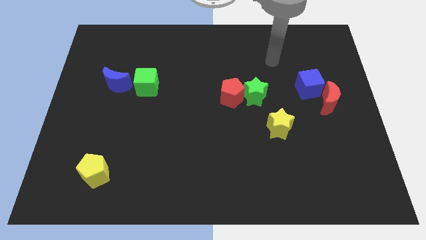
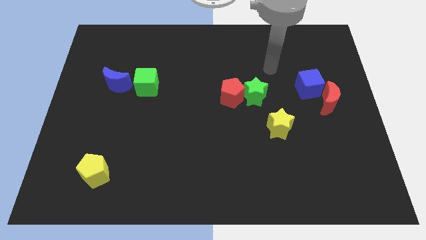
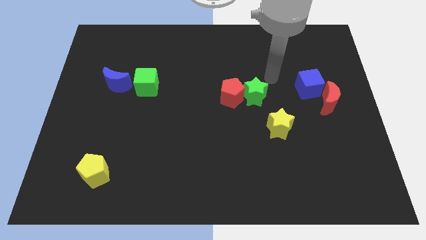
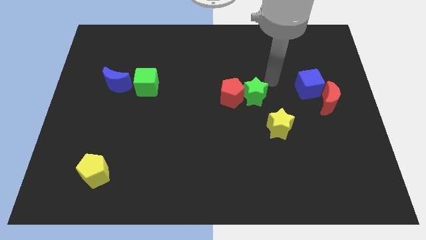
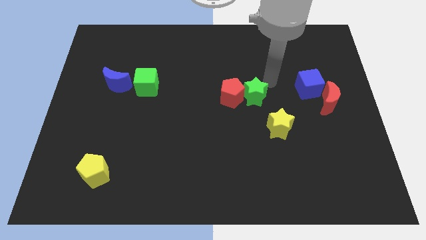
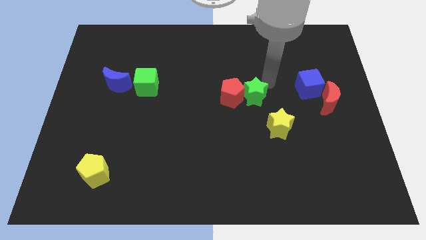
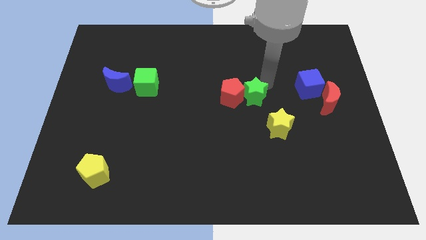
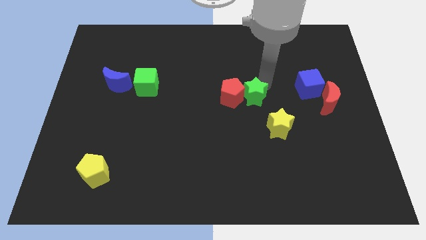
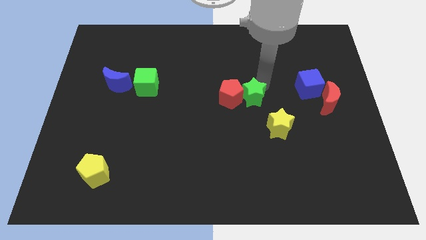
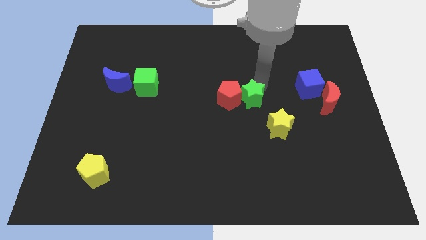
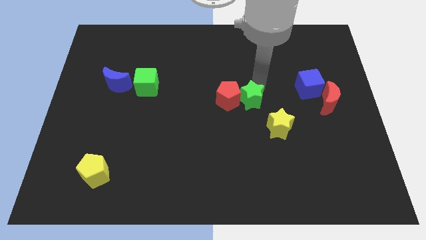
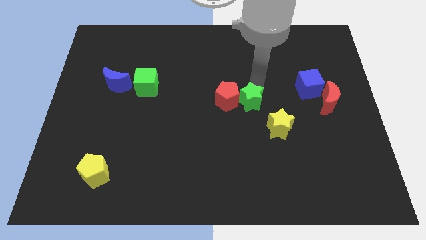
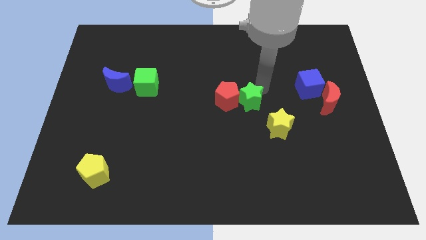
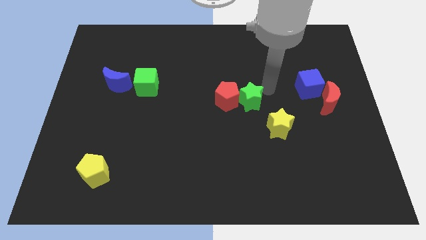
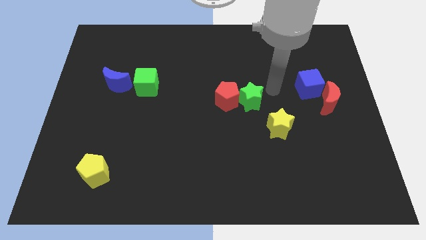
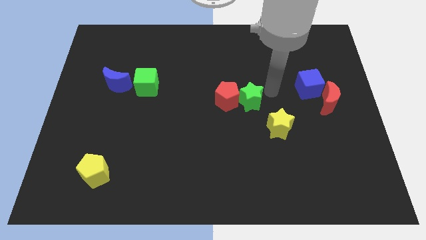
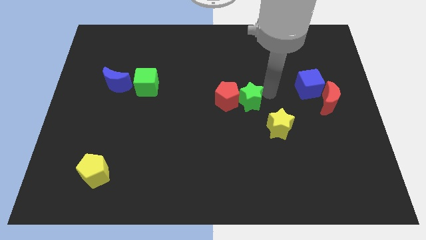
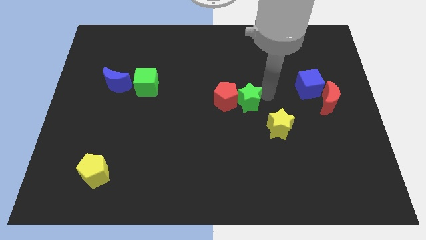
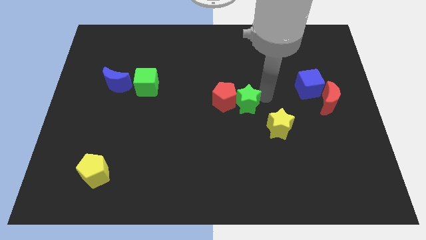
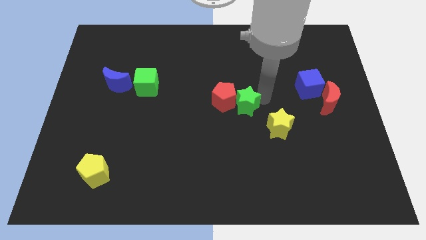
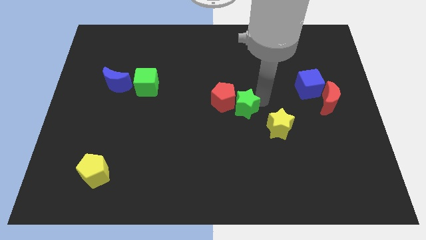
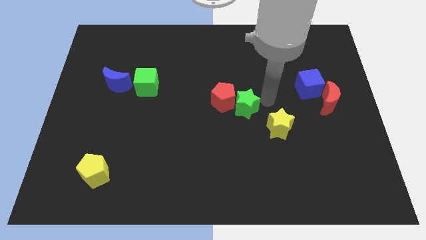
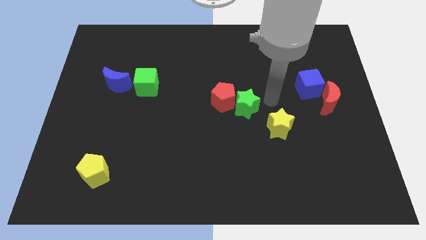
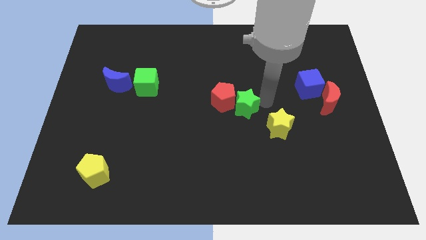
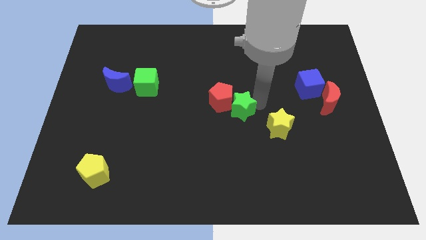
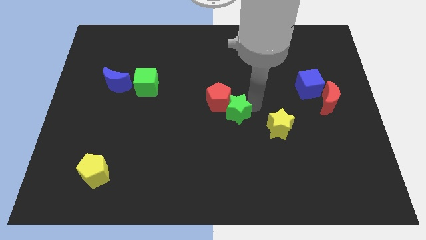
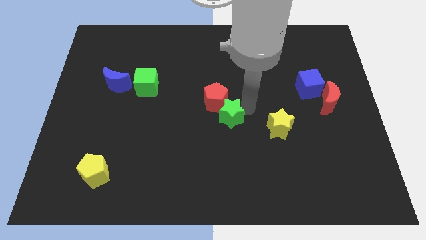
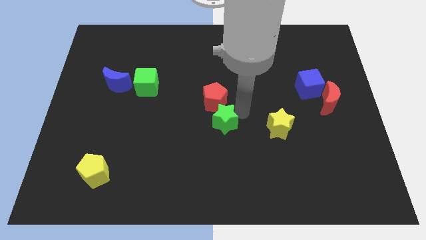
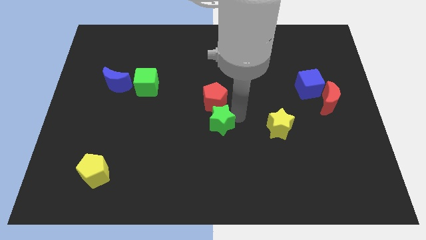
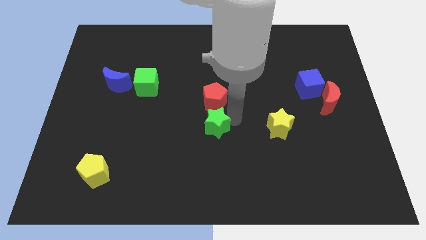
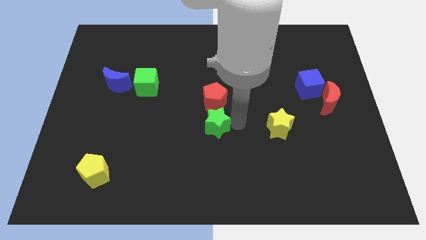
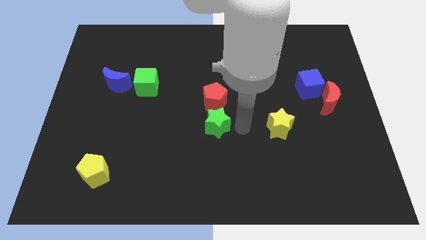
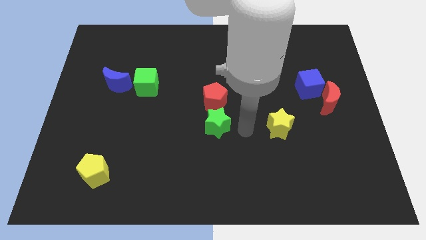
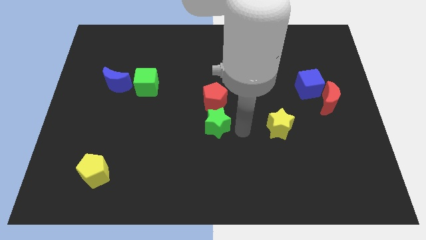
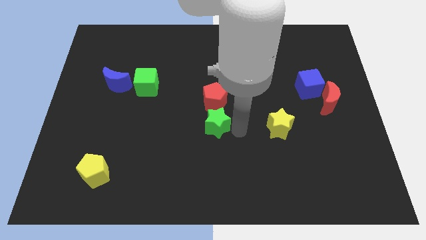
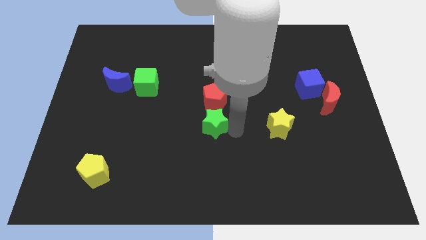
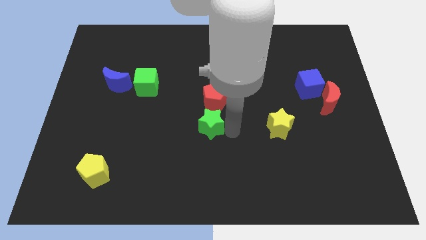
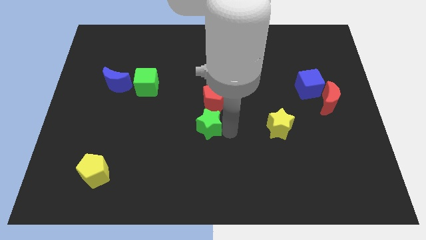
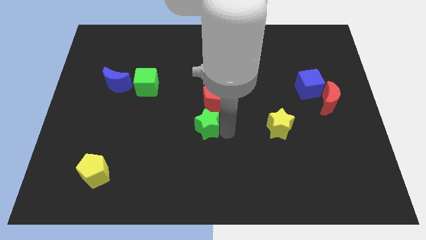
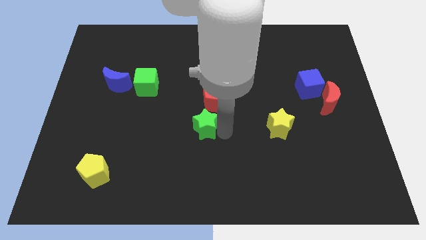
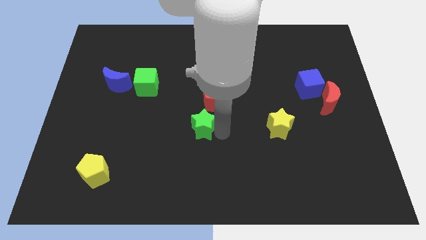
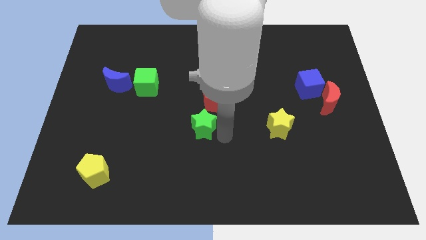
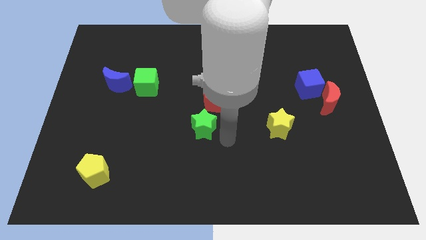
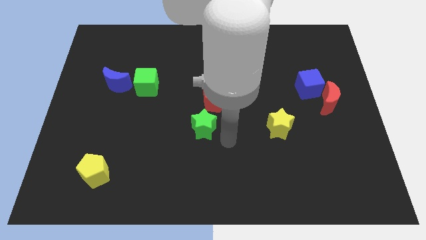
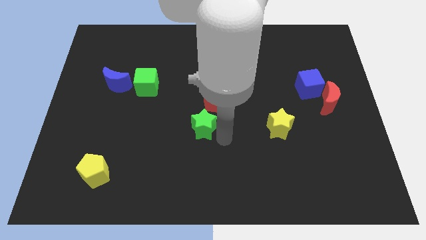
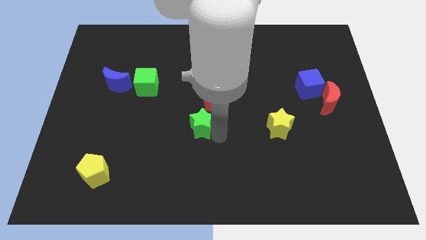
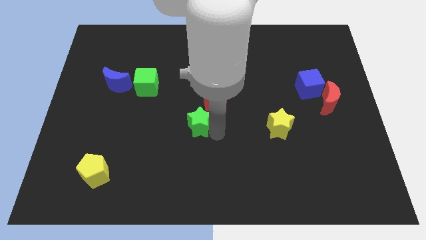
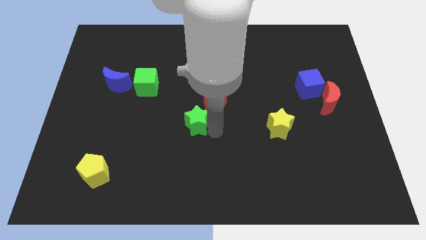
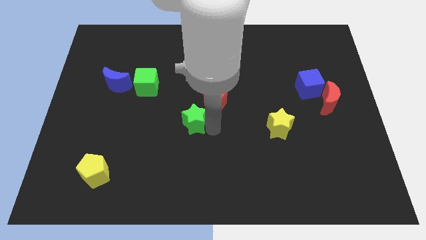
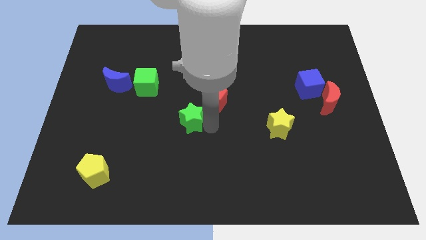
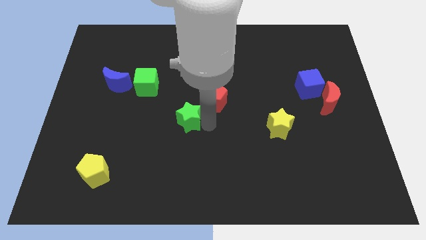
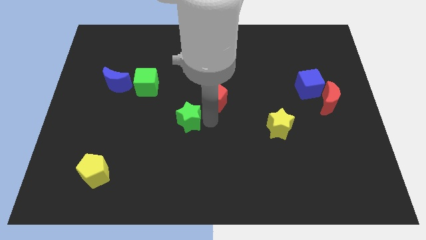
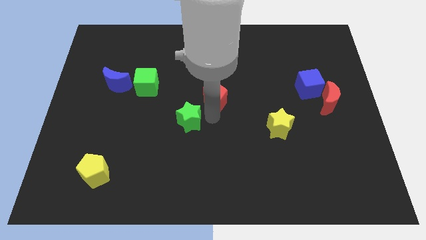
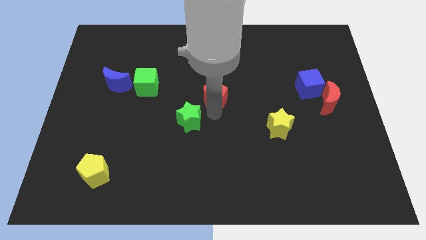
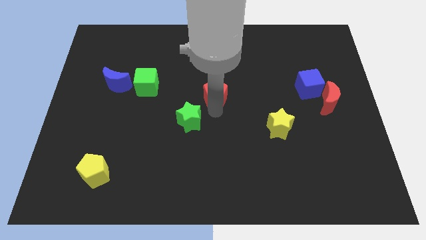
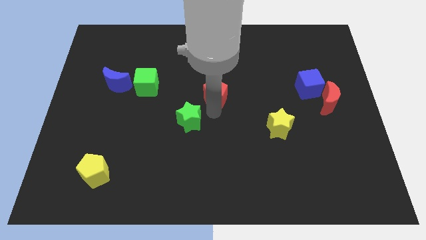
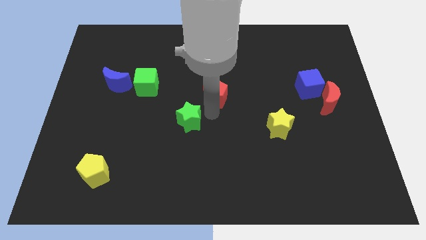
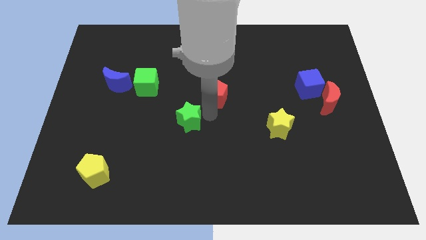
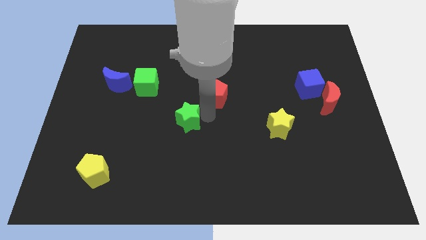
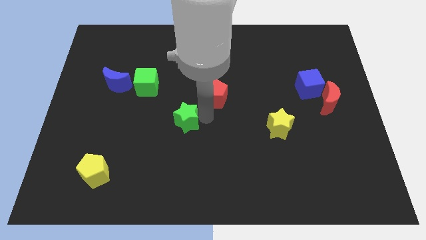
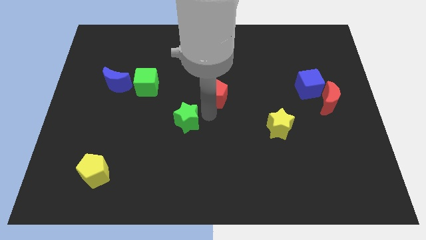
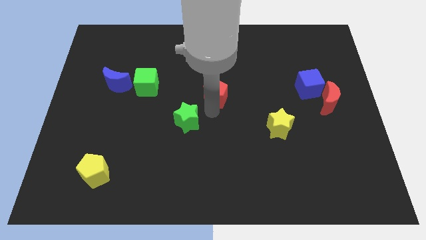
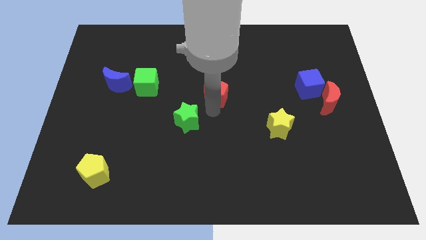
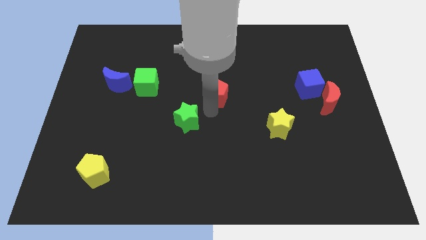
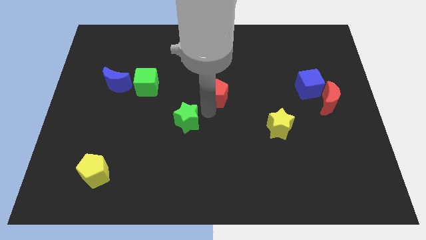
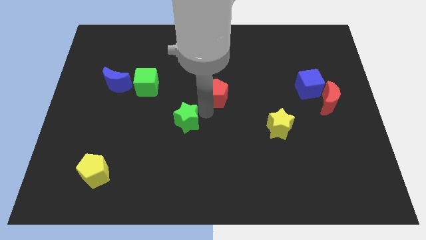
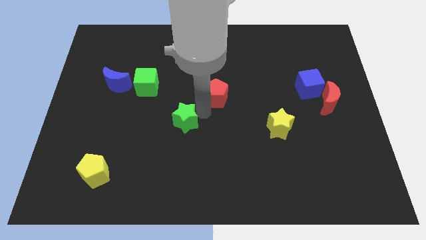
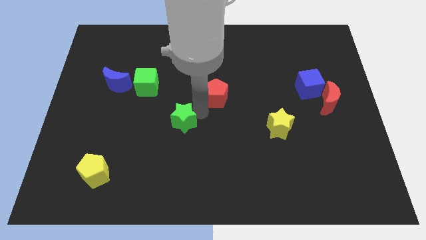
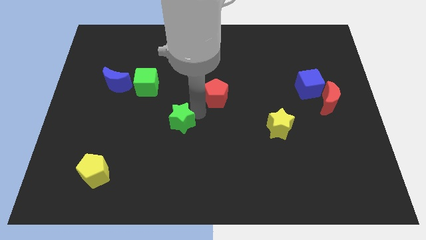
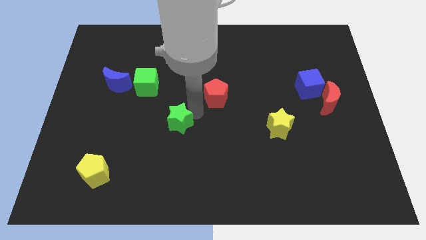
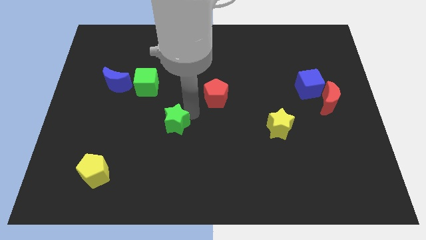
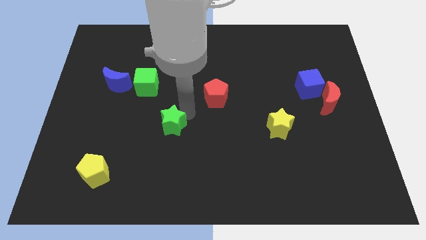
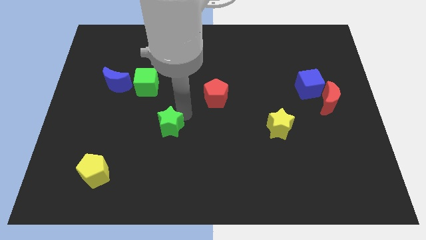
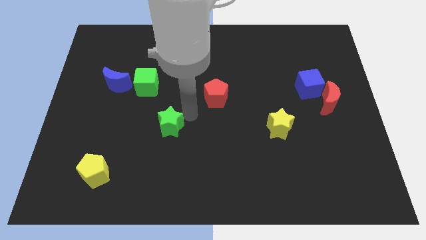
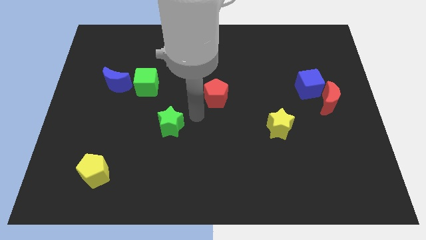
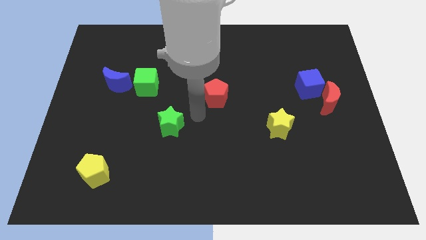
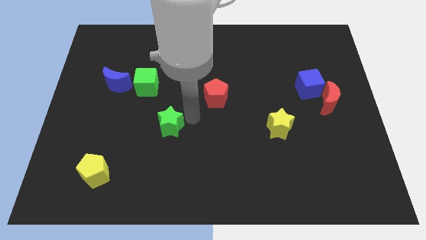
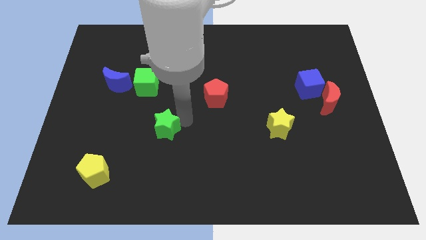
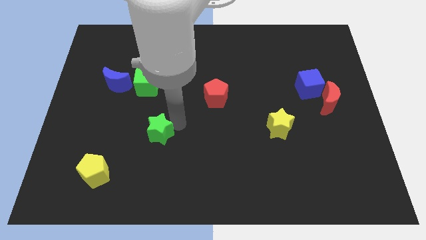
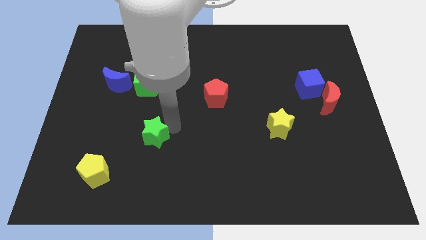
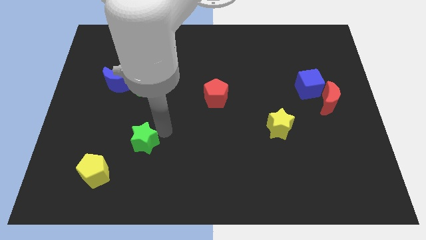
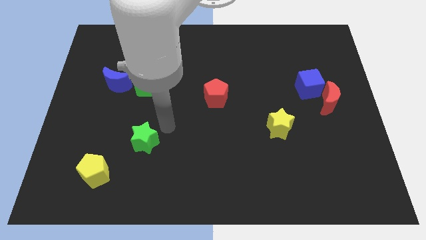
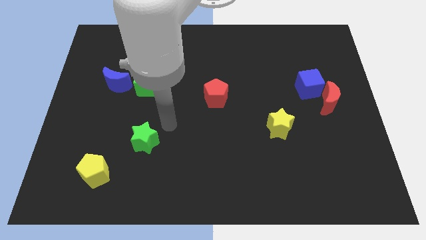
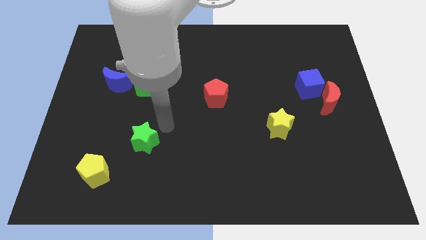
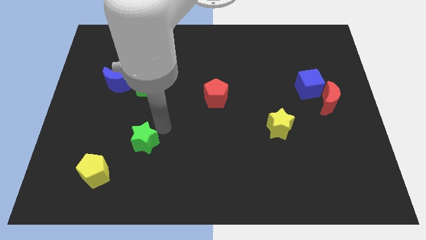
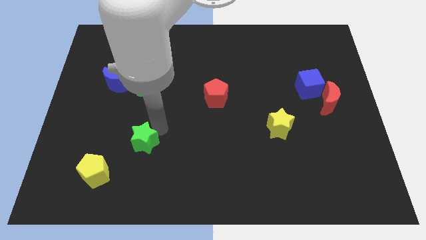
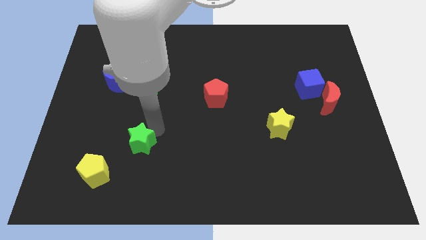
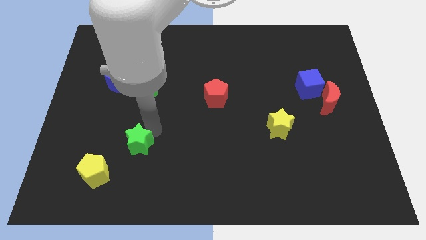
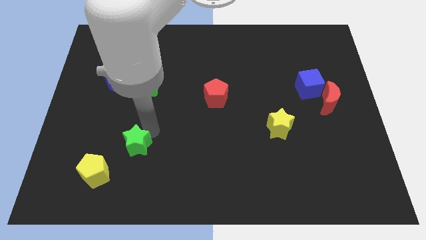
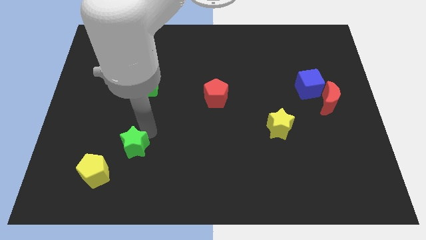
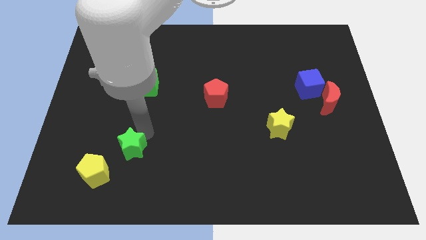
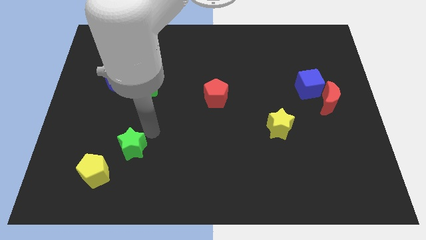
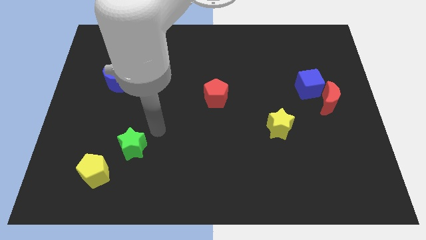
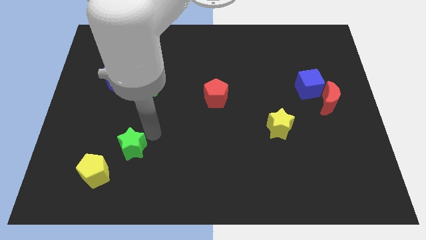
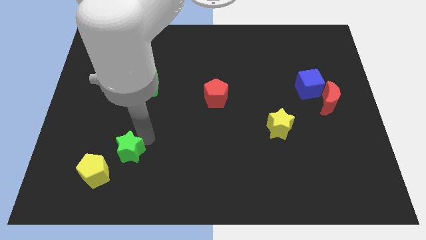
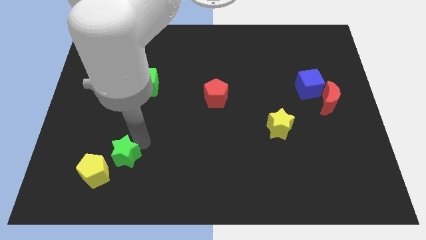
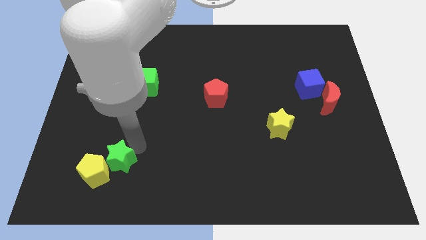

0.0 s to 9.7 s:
slide the green star towards the yellow pentagon
